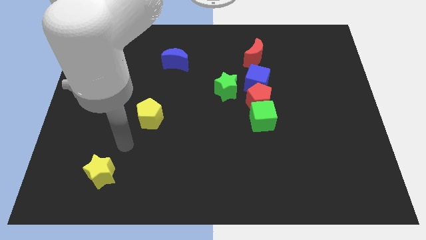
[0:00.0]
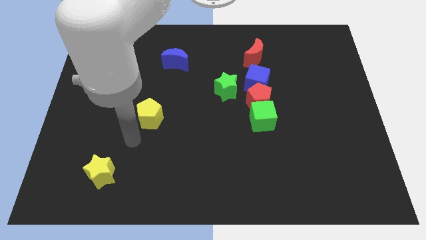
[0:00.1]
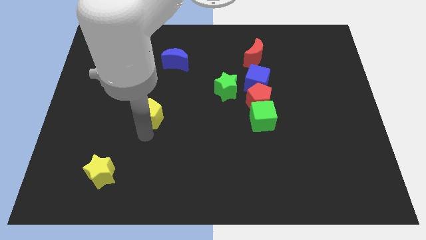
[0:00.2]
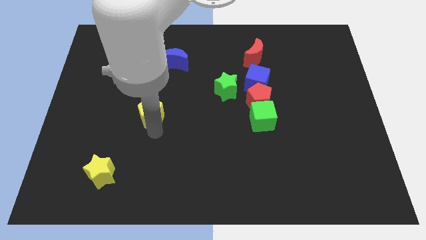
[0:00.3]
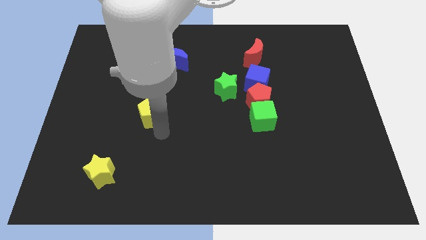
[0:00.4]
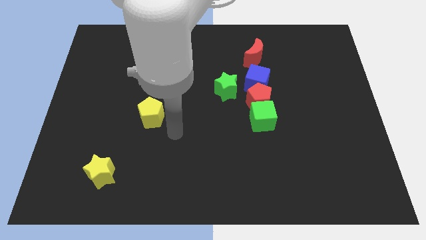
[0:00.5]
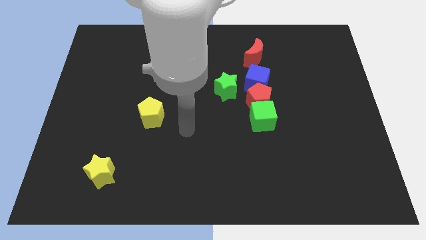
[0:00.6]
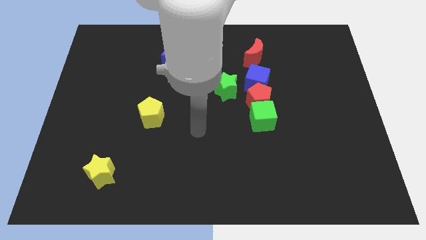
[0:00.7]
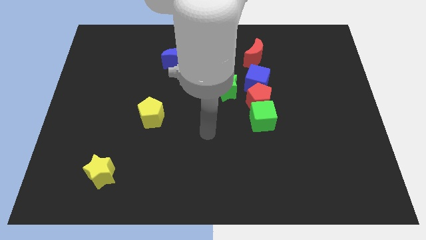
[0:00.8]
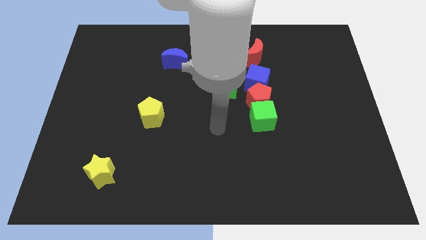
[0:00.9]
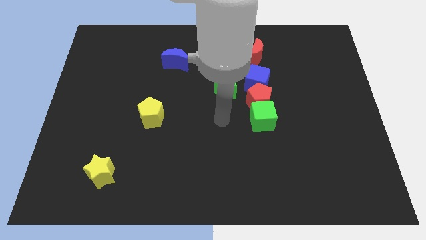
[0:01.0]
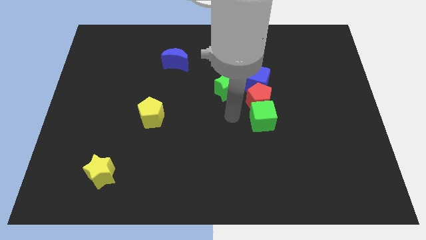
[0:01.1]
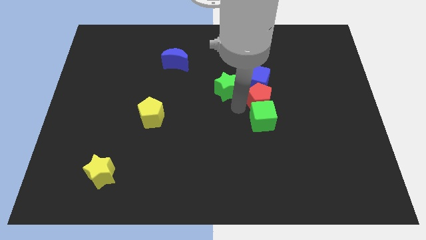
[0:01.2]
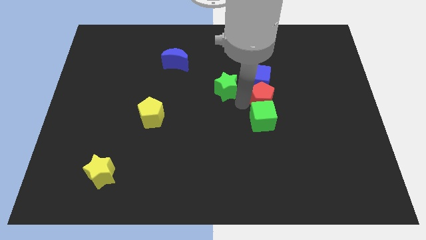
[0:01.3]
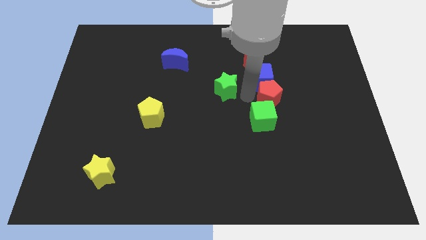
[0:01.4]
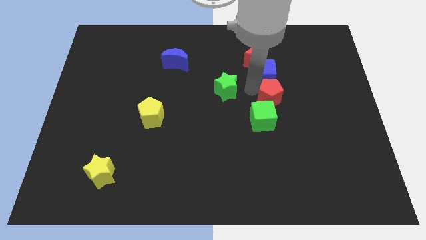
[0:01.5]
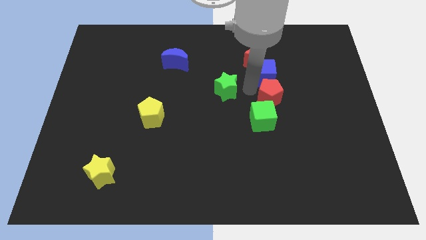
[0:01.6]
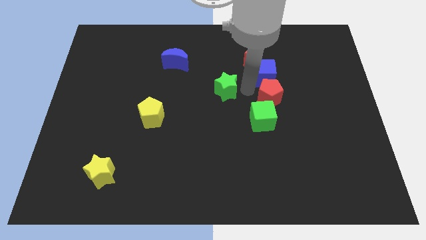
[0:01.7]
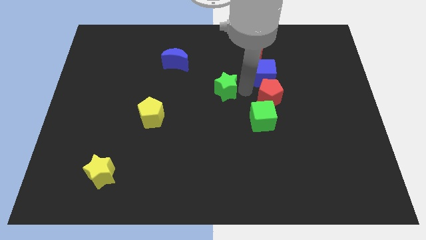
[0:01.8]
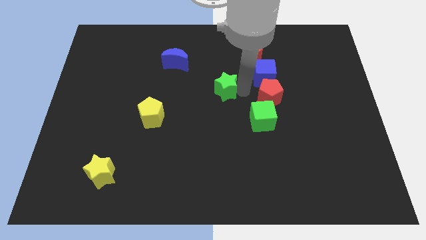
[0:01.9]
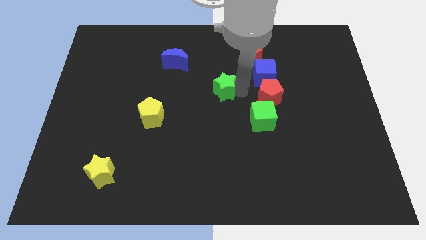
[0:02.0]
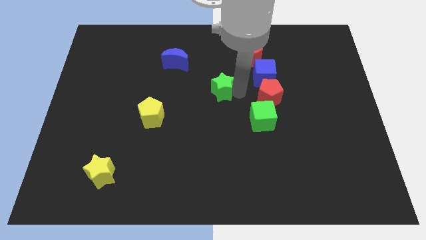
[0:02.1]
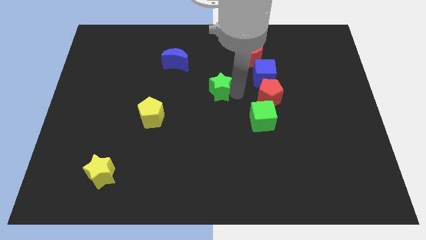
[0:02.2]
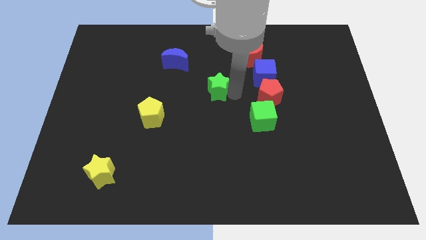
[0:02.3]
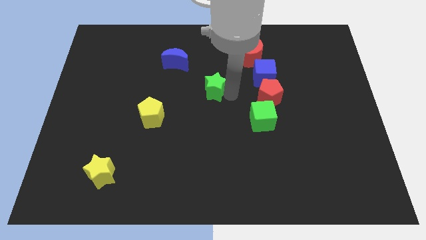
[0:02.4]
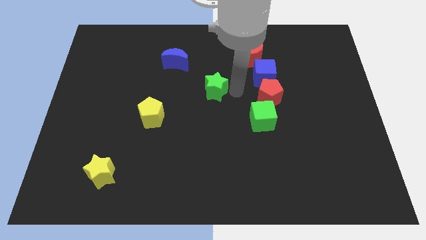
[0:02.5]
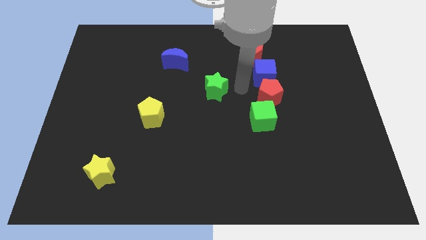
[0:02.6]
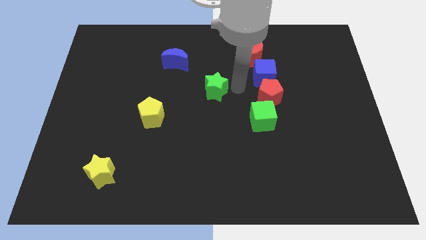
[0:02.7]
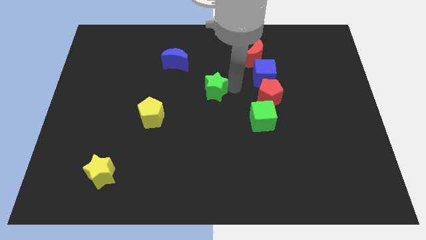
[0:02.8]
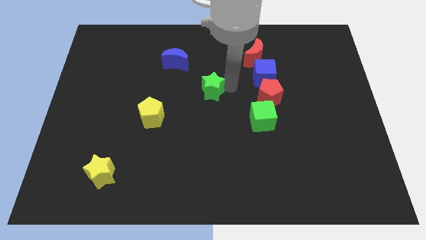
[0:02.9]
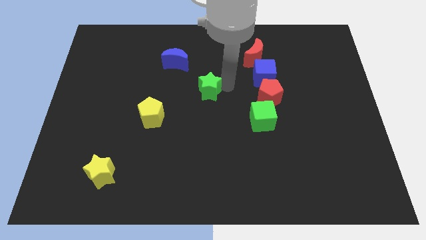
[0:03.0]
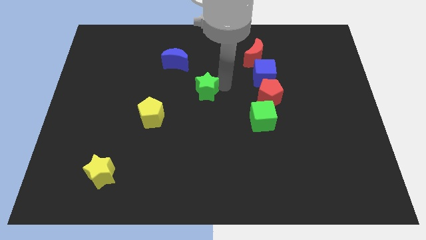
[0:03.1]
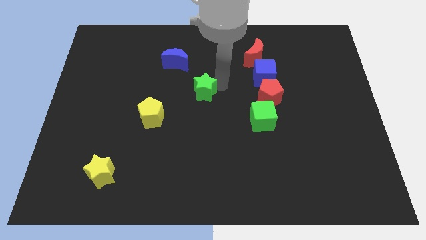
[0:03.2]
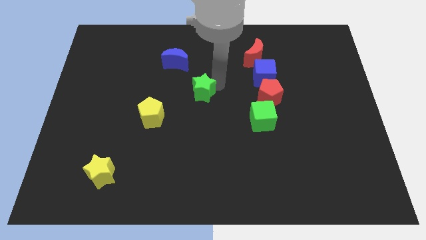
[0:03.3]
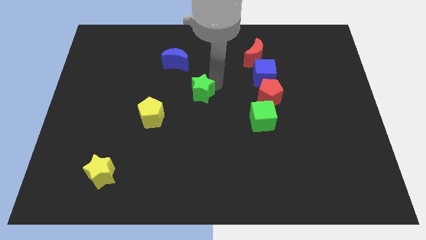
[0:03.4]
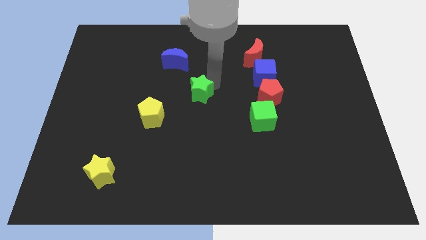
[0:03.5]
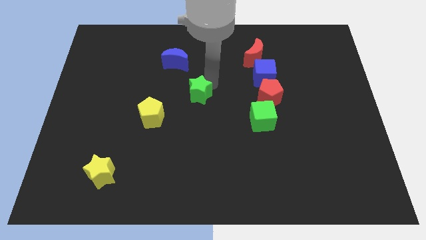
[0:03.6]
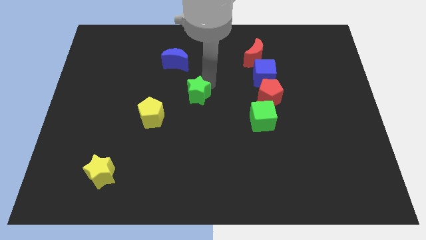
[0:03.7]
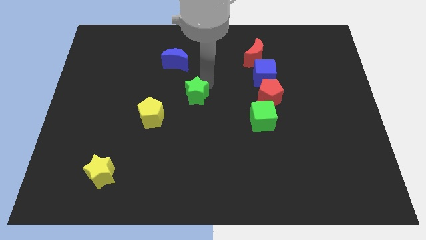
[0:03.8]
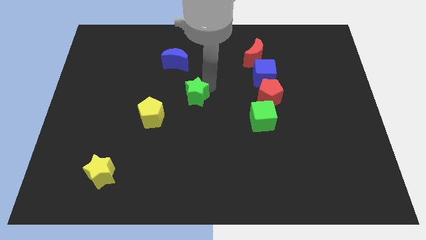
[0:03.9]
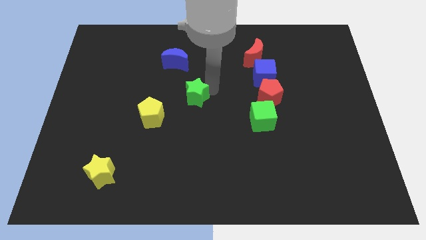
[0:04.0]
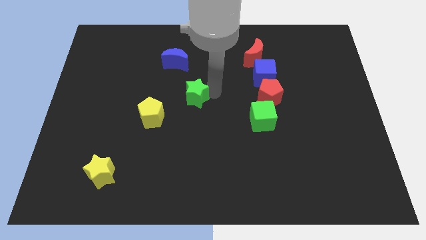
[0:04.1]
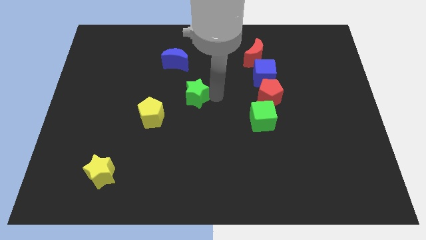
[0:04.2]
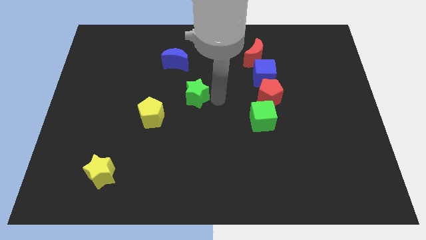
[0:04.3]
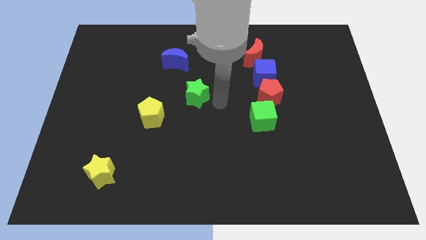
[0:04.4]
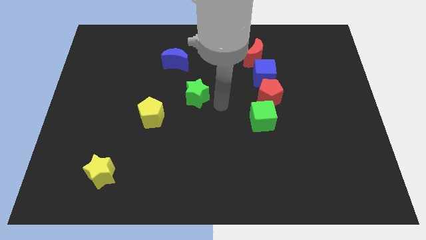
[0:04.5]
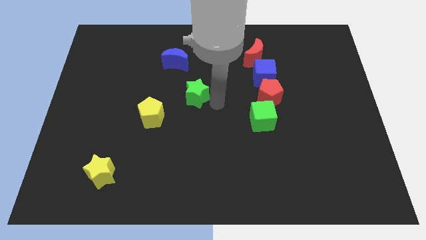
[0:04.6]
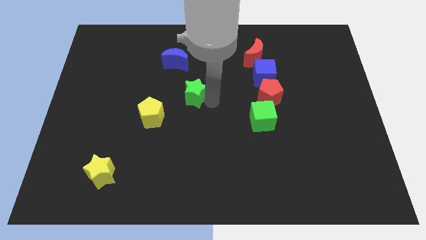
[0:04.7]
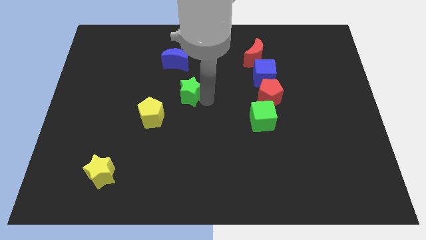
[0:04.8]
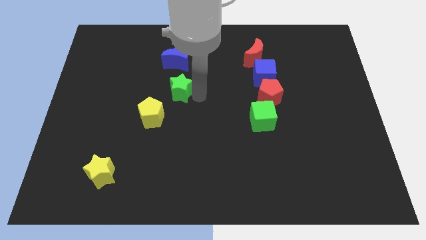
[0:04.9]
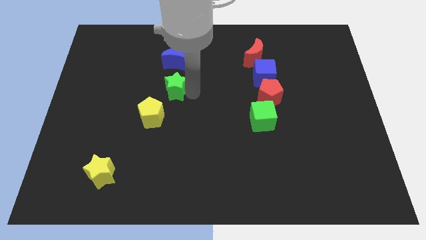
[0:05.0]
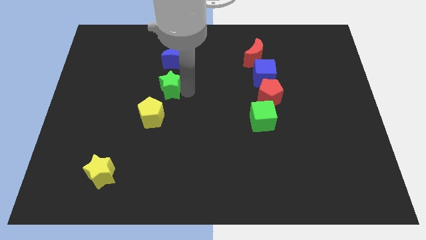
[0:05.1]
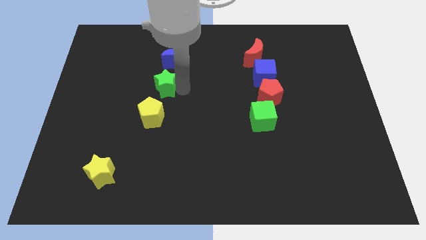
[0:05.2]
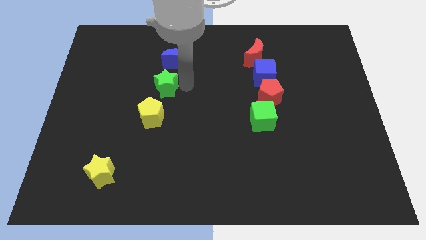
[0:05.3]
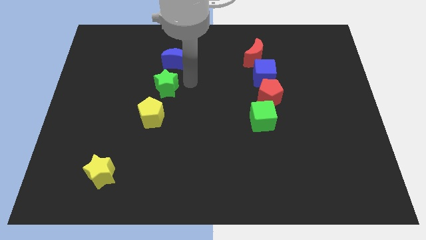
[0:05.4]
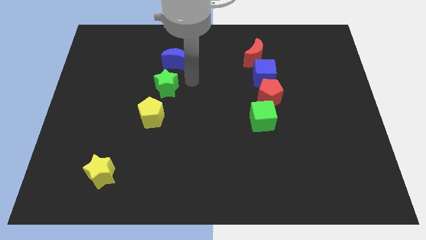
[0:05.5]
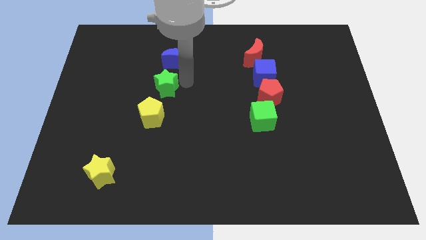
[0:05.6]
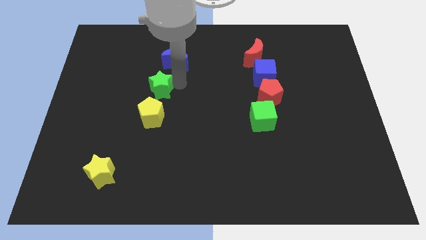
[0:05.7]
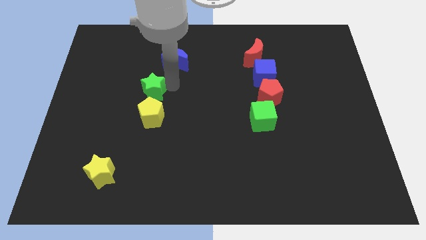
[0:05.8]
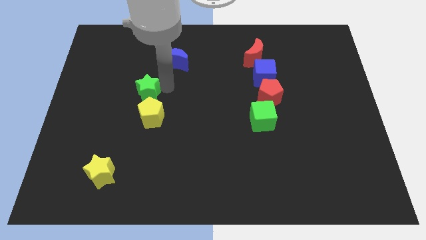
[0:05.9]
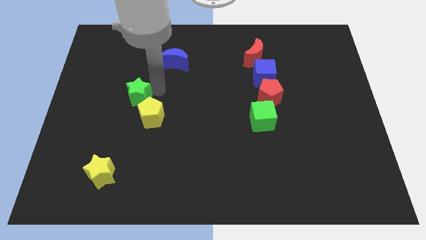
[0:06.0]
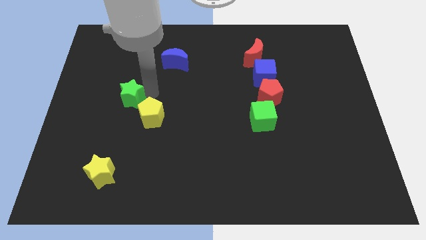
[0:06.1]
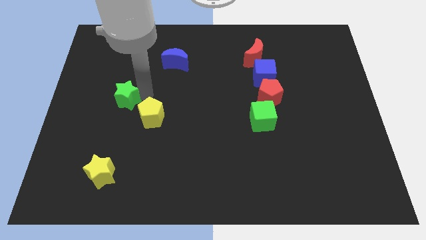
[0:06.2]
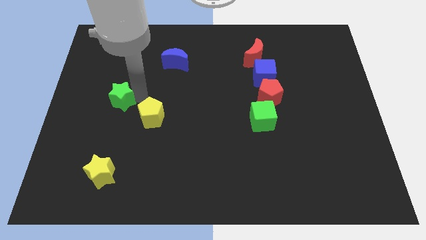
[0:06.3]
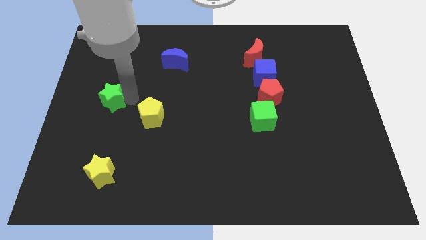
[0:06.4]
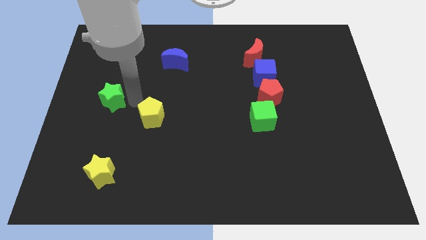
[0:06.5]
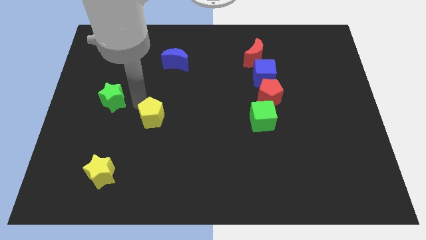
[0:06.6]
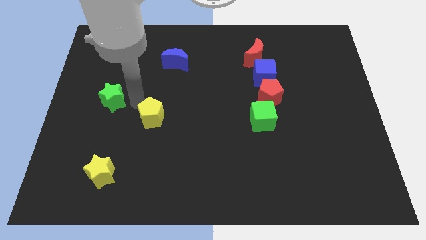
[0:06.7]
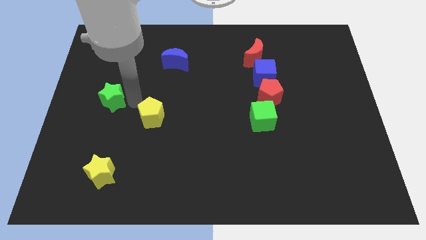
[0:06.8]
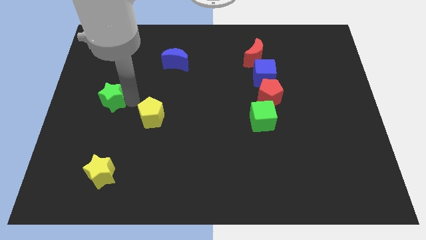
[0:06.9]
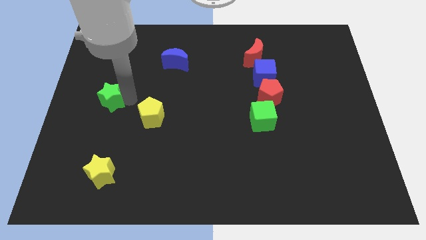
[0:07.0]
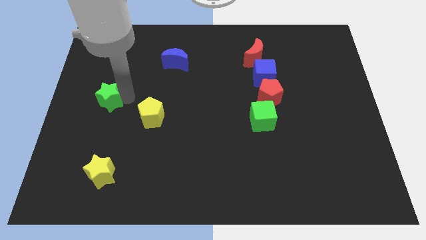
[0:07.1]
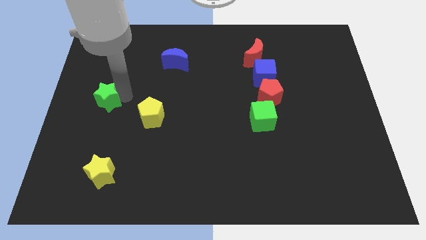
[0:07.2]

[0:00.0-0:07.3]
move the green star to the left side of the board
